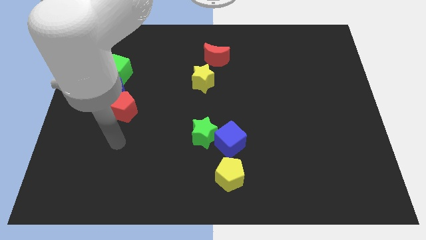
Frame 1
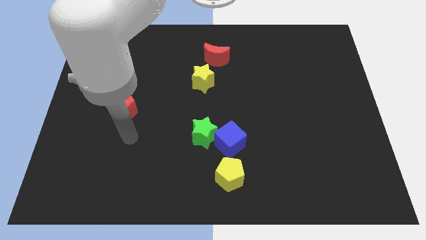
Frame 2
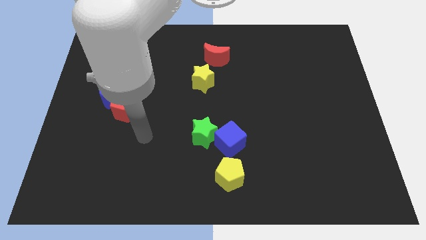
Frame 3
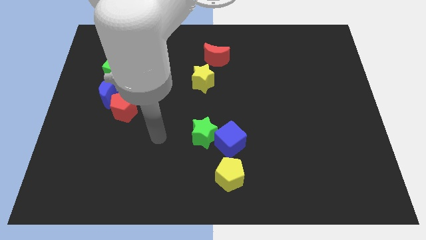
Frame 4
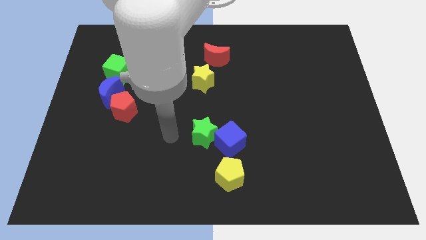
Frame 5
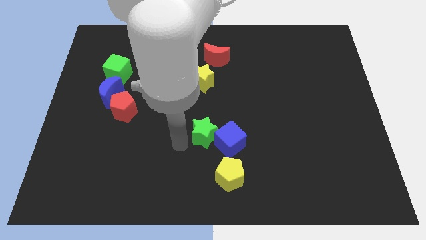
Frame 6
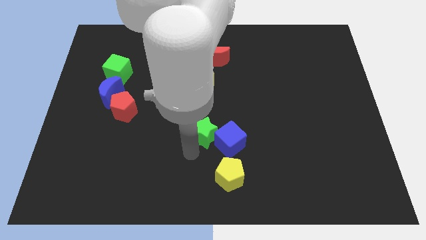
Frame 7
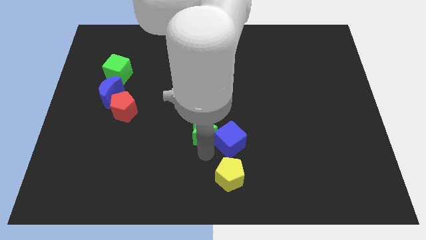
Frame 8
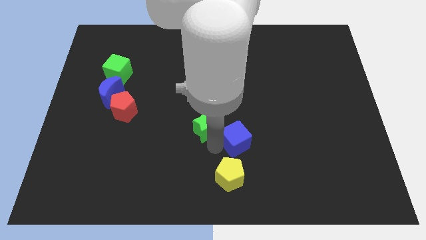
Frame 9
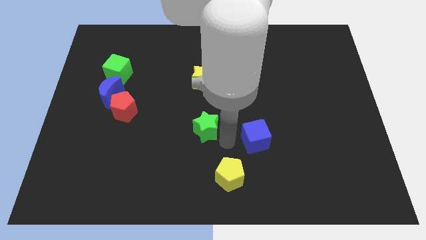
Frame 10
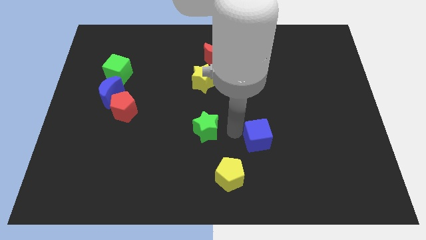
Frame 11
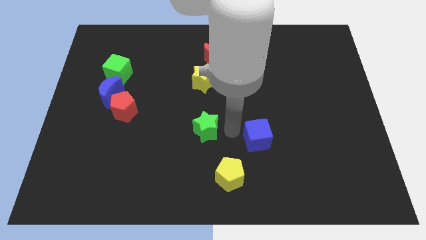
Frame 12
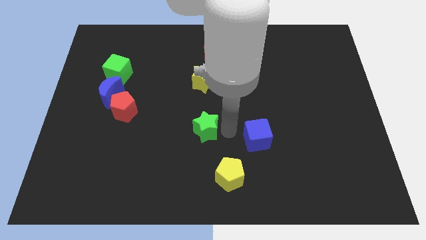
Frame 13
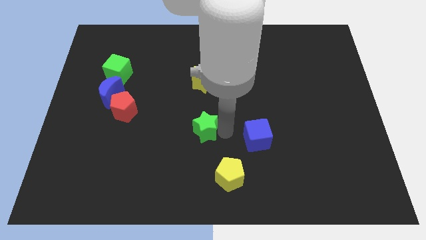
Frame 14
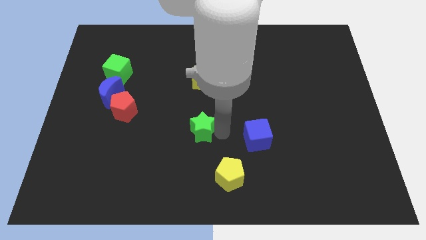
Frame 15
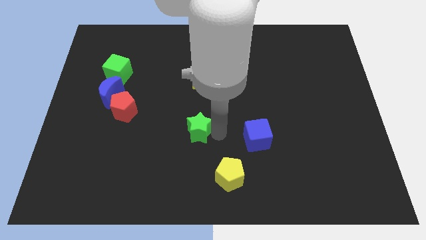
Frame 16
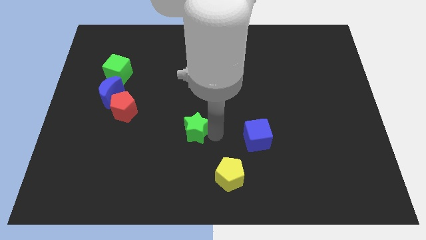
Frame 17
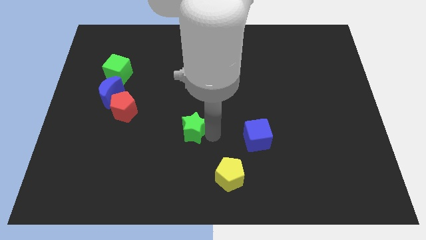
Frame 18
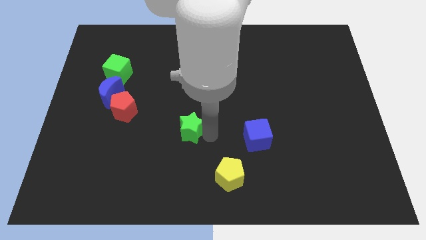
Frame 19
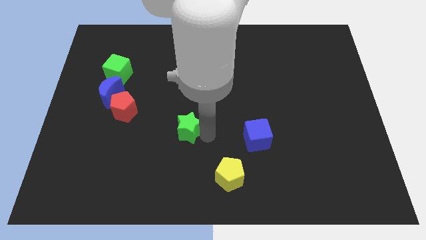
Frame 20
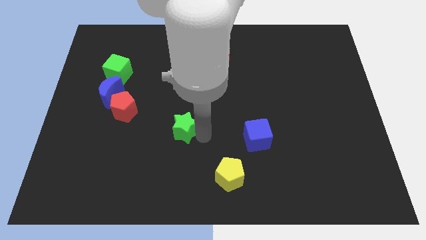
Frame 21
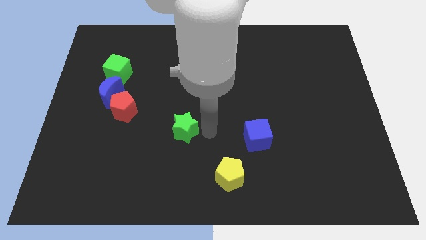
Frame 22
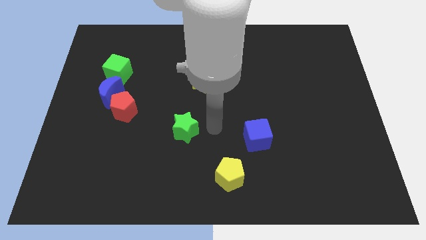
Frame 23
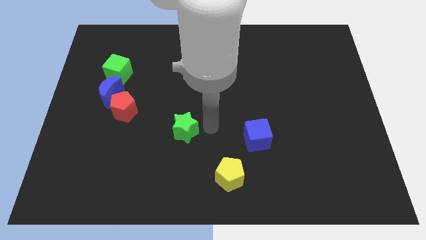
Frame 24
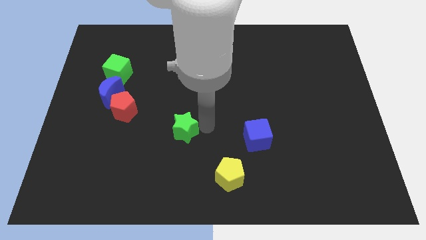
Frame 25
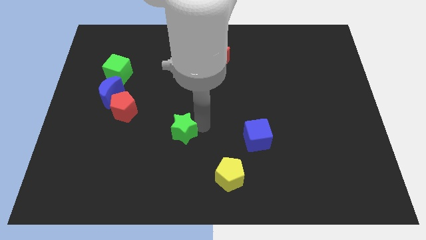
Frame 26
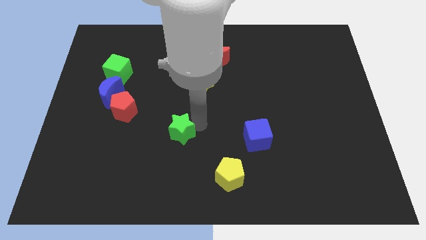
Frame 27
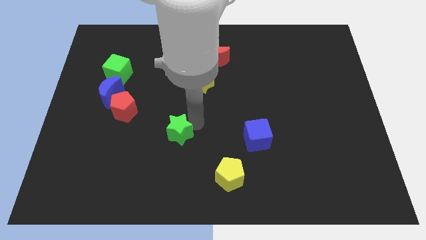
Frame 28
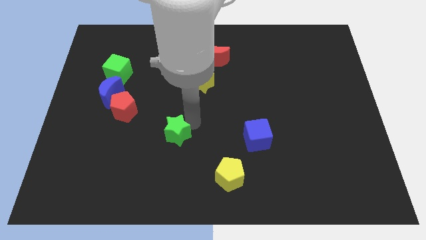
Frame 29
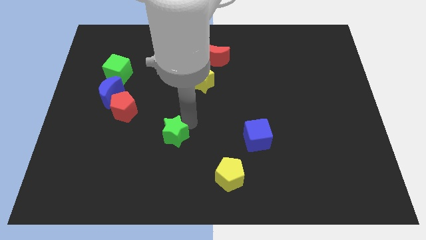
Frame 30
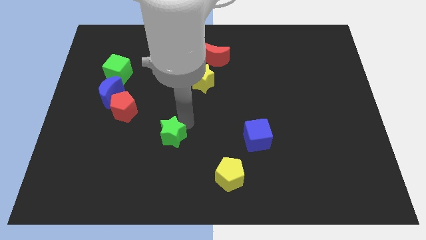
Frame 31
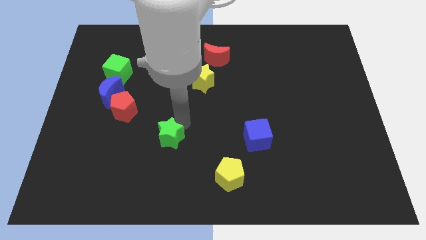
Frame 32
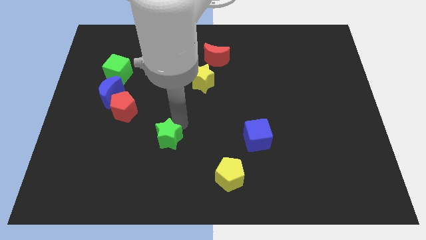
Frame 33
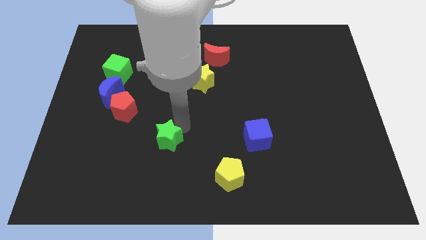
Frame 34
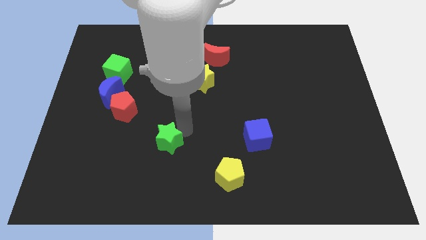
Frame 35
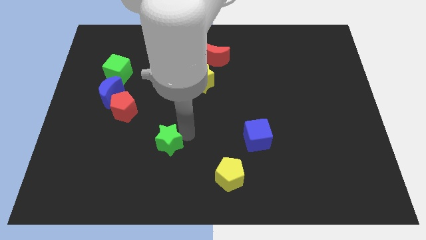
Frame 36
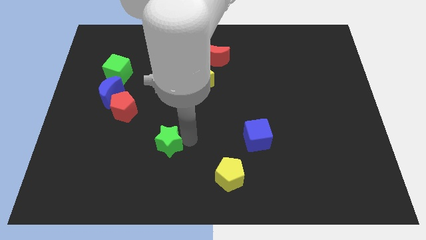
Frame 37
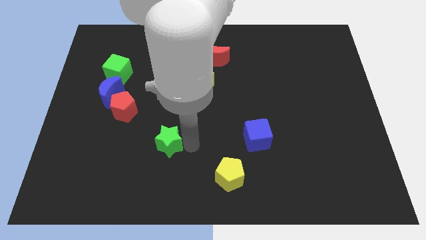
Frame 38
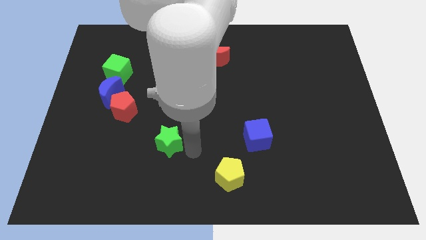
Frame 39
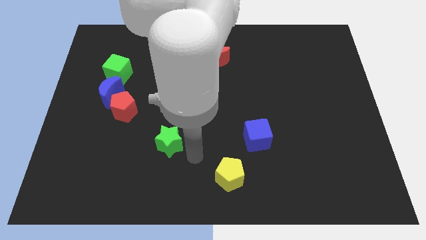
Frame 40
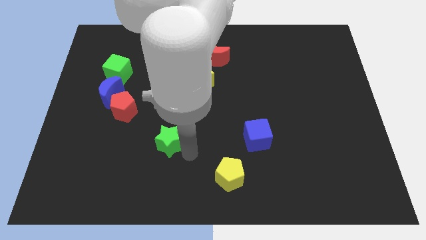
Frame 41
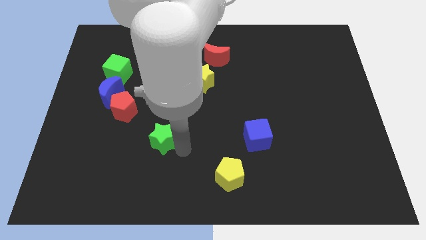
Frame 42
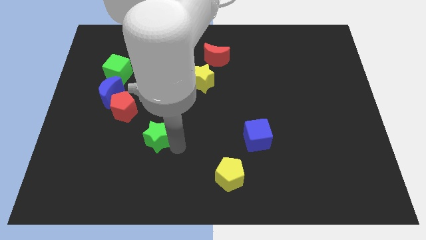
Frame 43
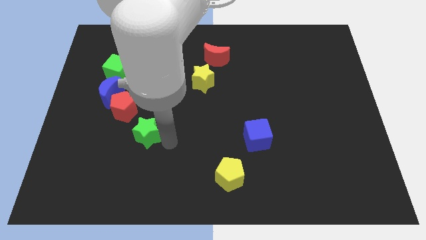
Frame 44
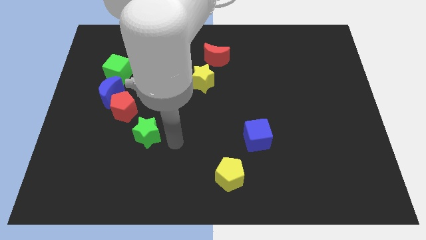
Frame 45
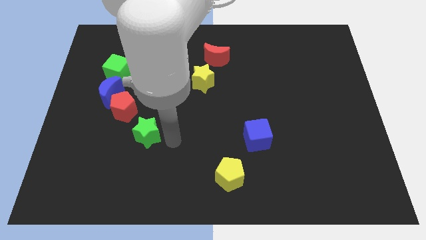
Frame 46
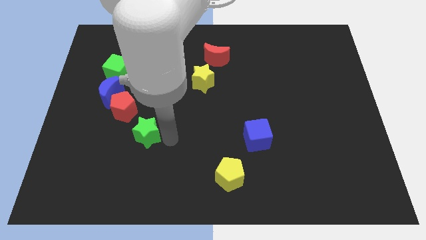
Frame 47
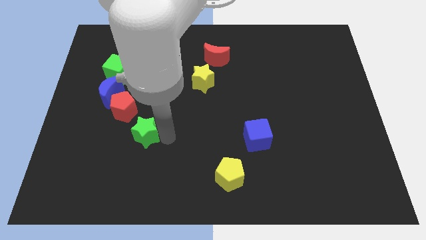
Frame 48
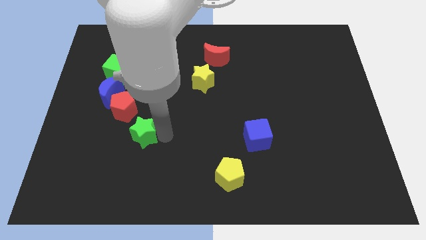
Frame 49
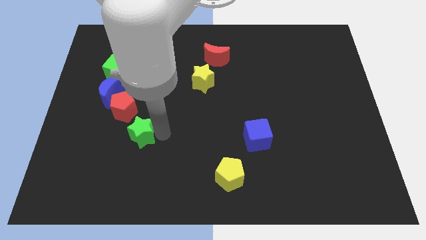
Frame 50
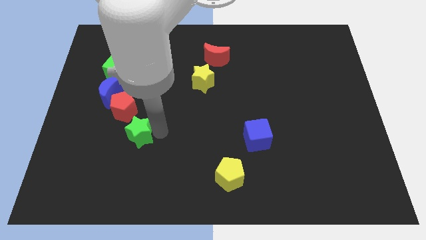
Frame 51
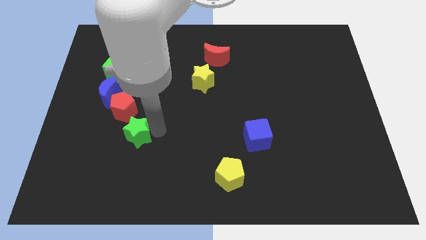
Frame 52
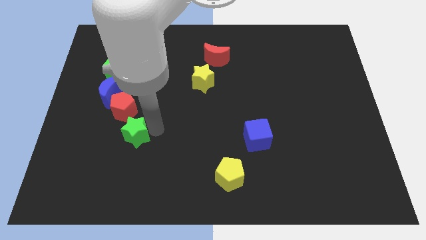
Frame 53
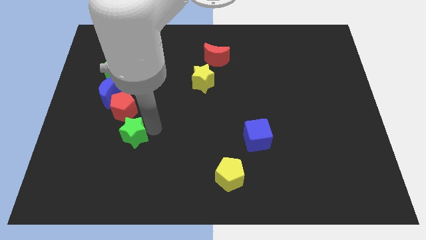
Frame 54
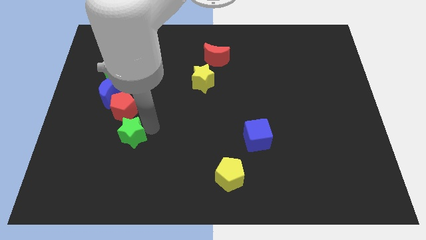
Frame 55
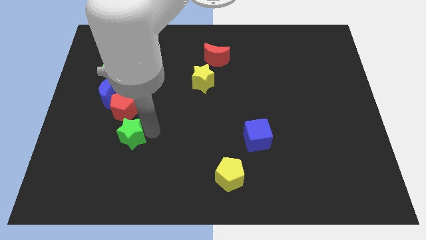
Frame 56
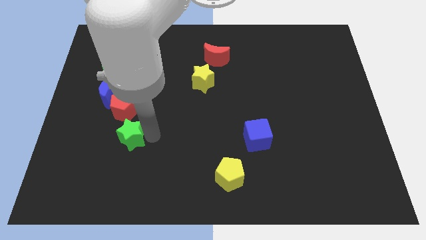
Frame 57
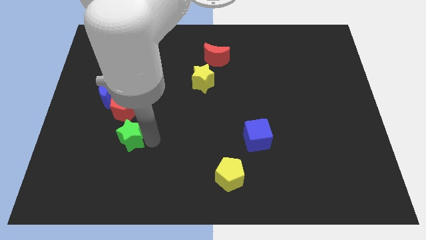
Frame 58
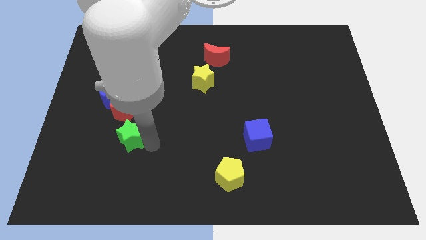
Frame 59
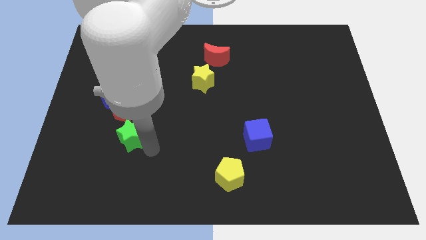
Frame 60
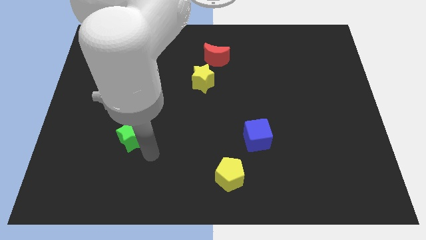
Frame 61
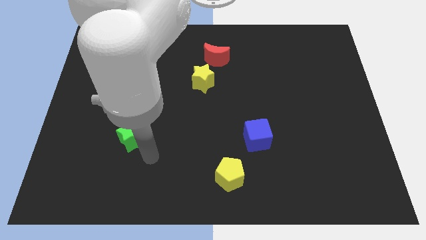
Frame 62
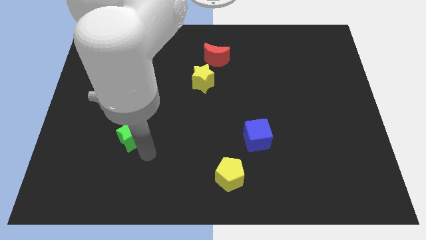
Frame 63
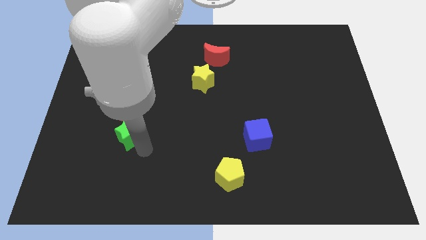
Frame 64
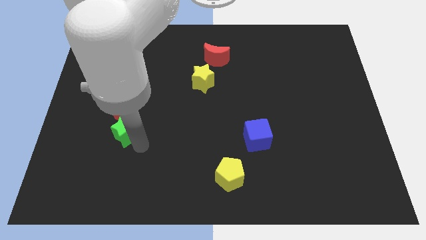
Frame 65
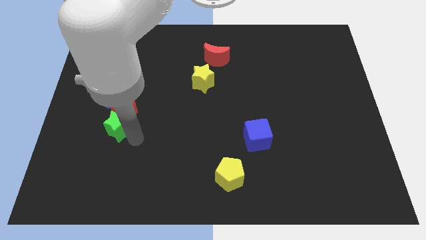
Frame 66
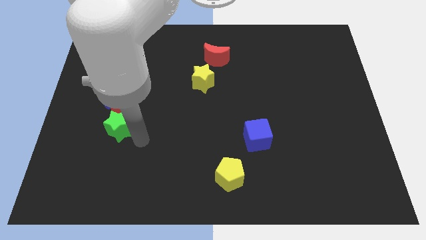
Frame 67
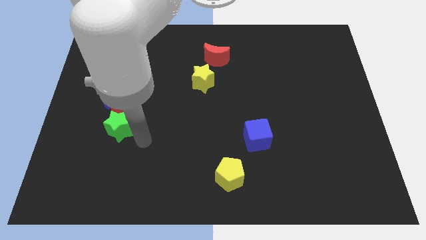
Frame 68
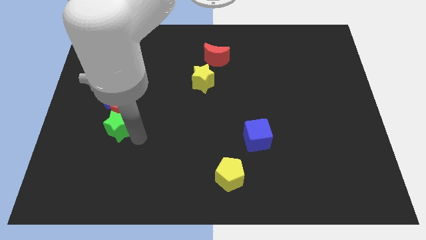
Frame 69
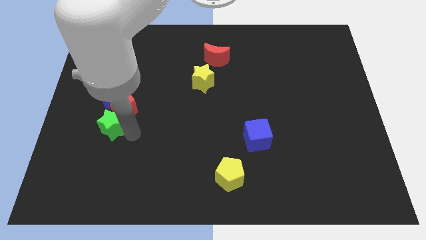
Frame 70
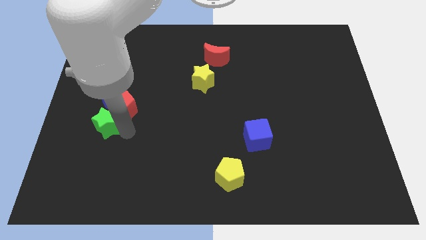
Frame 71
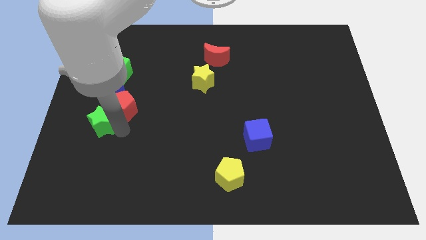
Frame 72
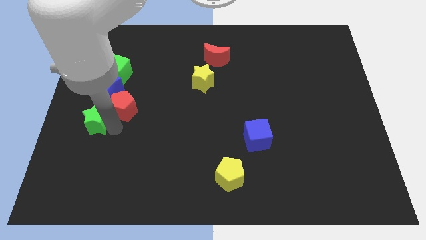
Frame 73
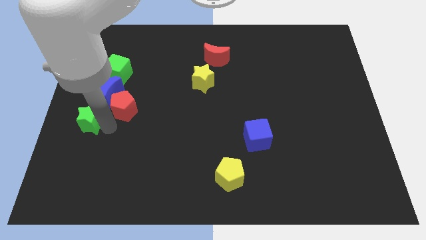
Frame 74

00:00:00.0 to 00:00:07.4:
push the green star to the left side
